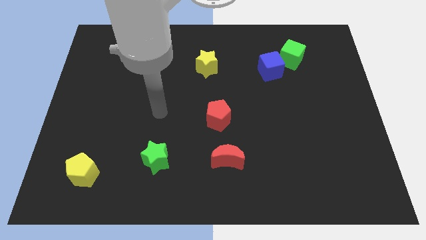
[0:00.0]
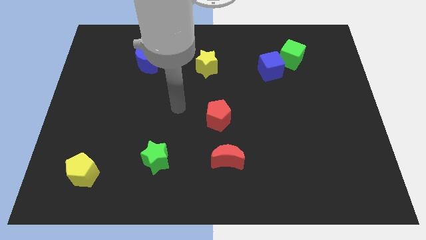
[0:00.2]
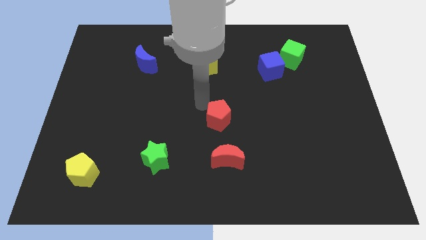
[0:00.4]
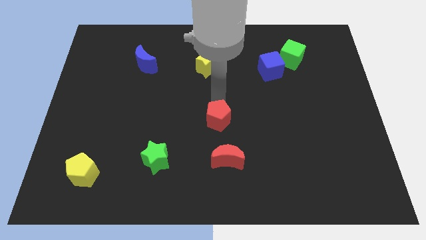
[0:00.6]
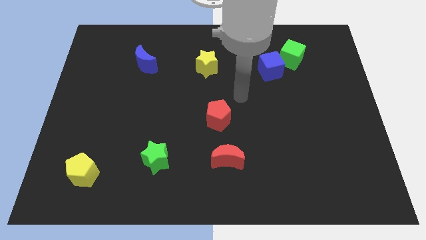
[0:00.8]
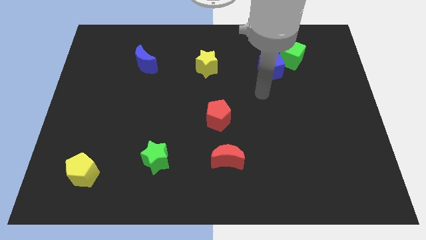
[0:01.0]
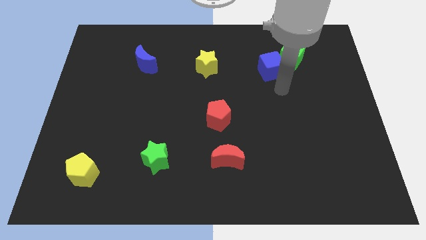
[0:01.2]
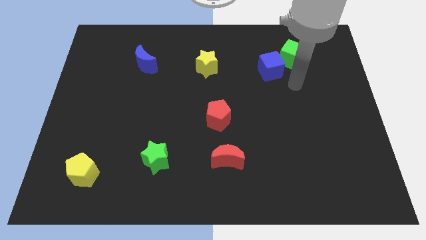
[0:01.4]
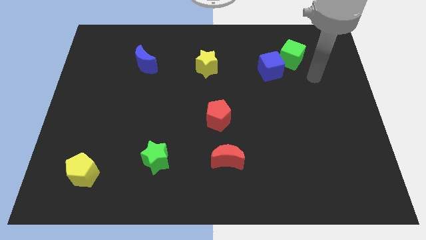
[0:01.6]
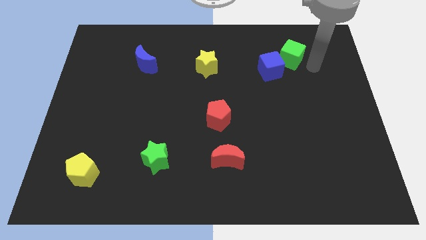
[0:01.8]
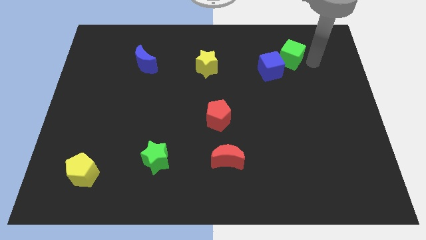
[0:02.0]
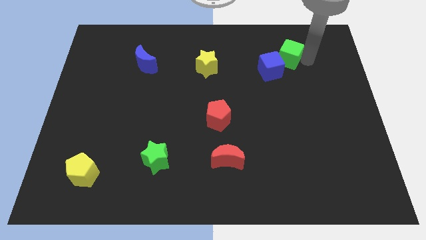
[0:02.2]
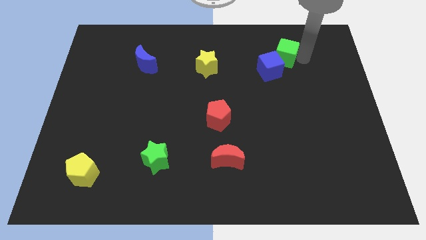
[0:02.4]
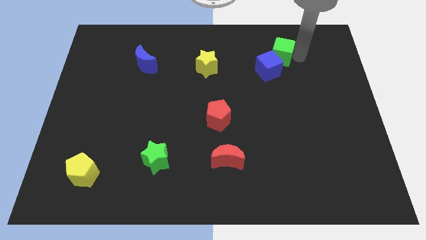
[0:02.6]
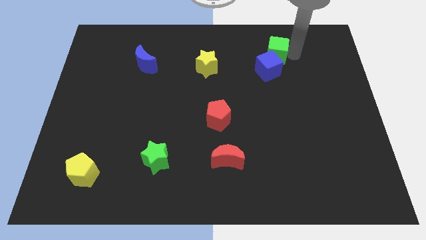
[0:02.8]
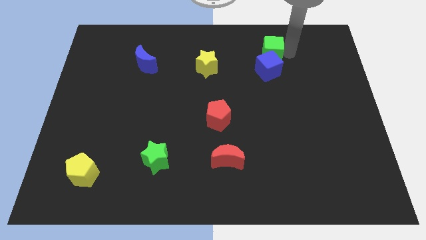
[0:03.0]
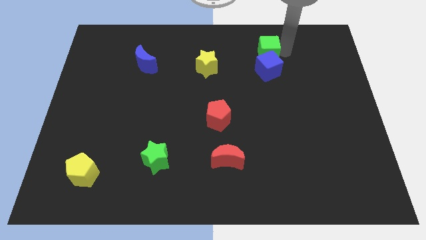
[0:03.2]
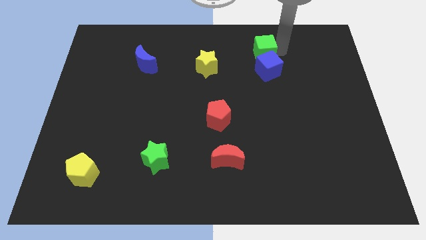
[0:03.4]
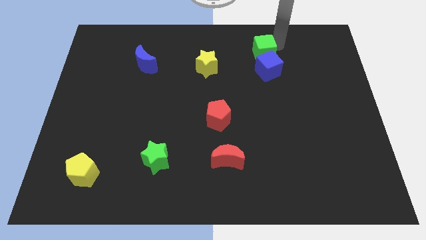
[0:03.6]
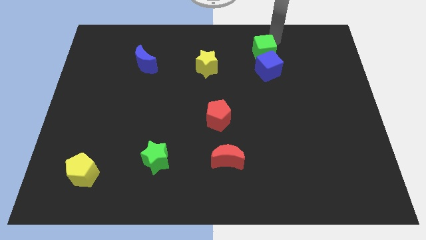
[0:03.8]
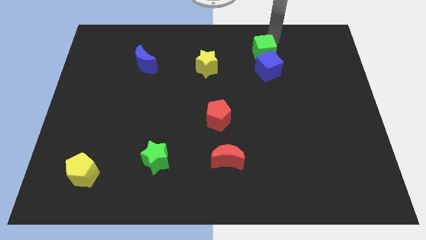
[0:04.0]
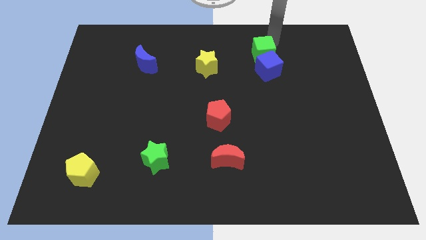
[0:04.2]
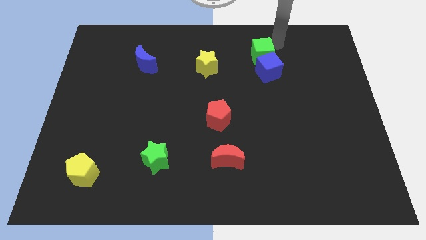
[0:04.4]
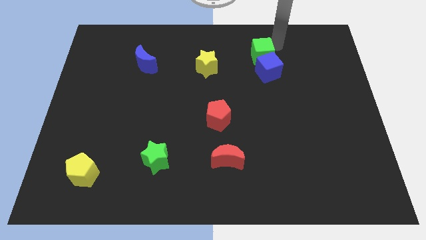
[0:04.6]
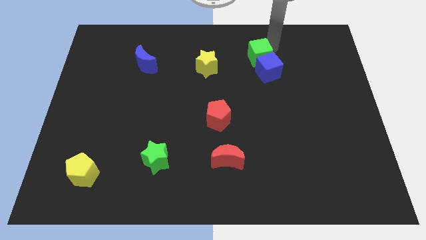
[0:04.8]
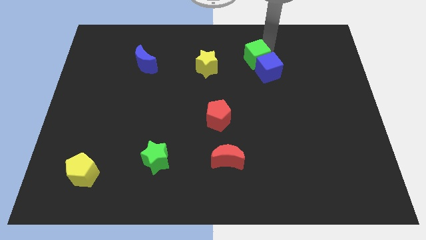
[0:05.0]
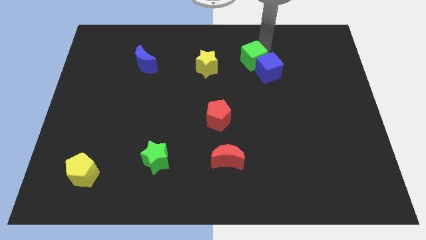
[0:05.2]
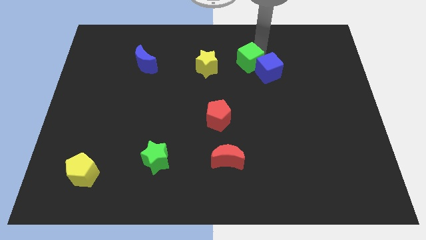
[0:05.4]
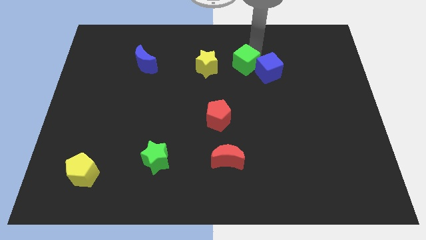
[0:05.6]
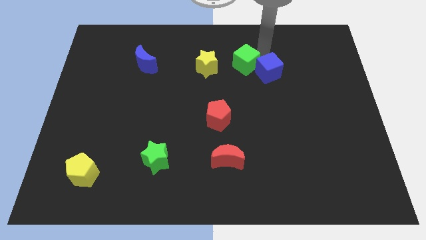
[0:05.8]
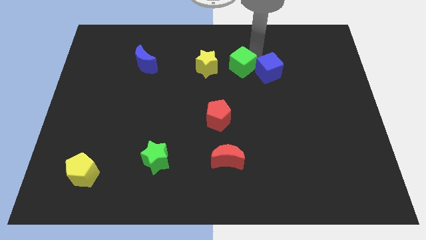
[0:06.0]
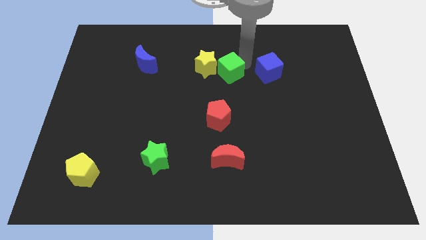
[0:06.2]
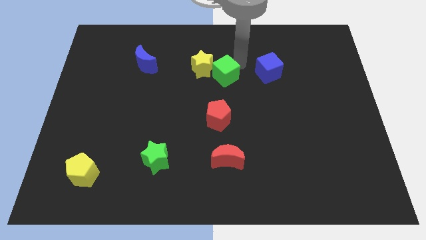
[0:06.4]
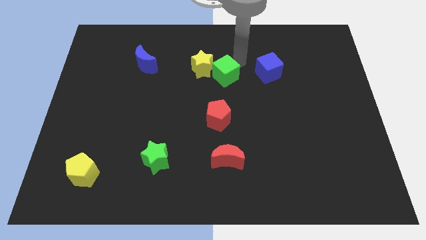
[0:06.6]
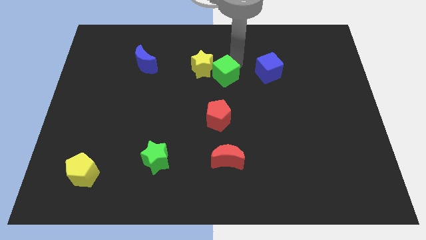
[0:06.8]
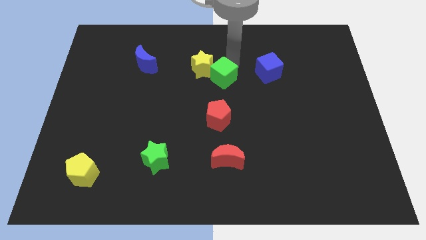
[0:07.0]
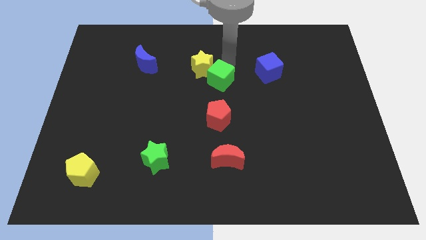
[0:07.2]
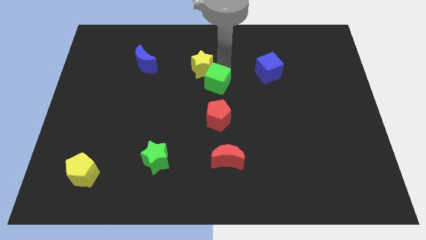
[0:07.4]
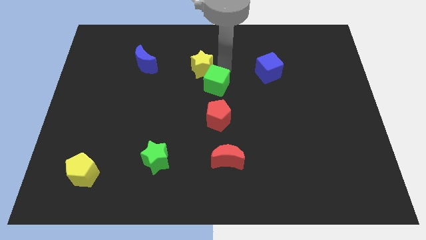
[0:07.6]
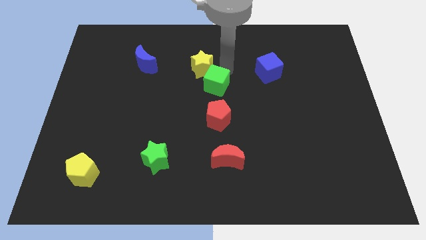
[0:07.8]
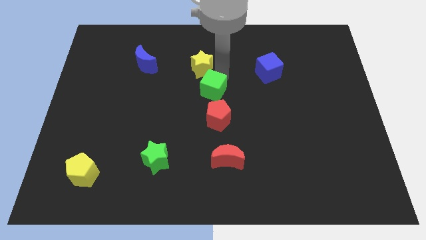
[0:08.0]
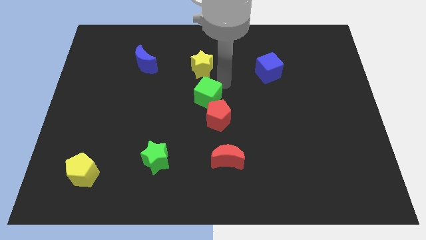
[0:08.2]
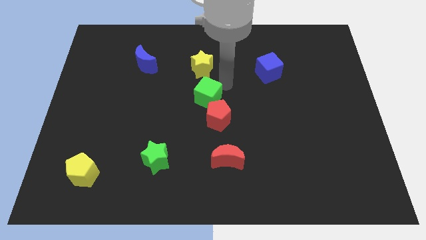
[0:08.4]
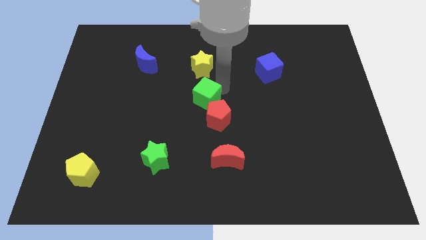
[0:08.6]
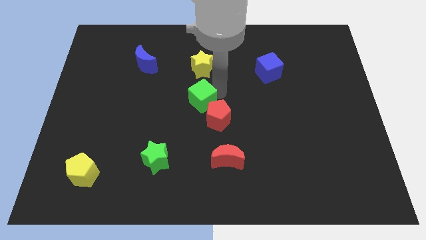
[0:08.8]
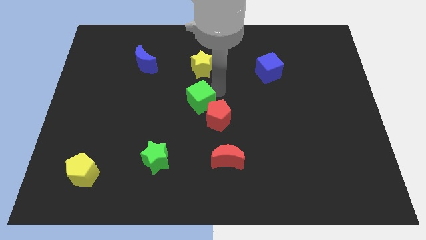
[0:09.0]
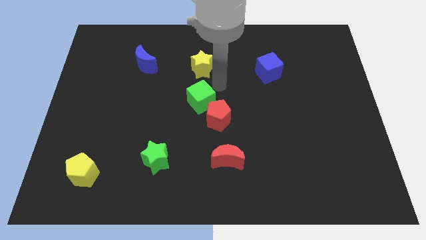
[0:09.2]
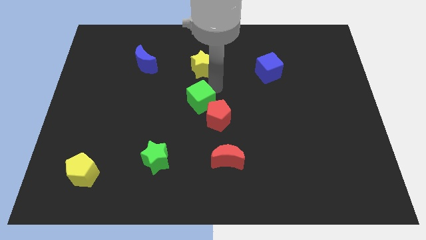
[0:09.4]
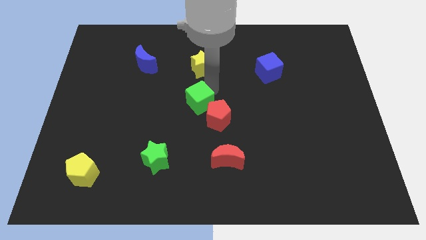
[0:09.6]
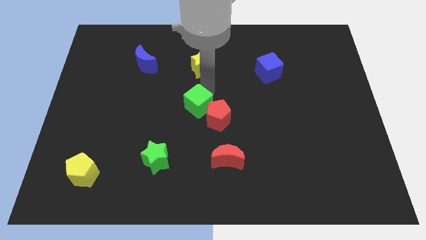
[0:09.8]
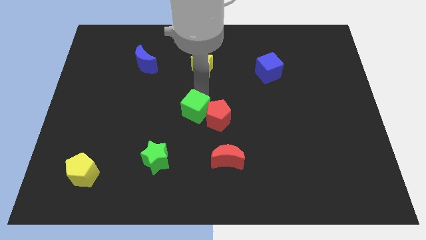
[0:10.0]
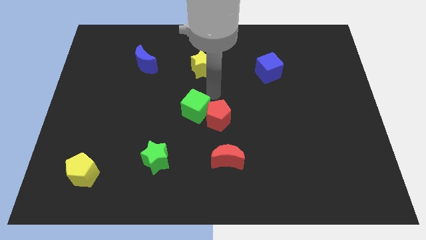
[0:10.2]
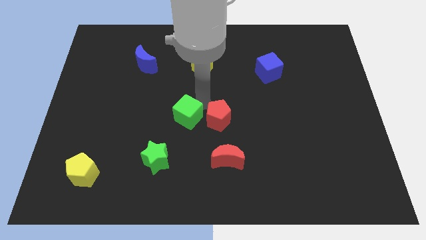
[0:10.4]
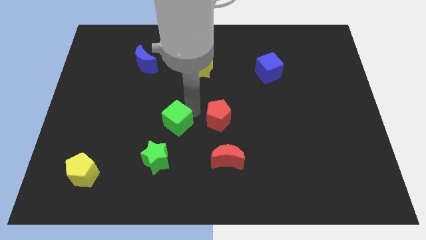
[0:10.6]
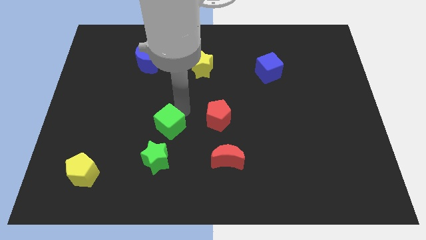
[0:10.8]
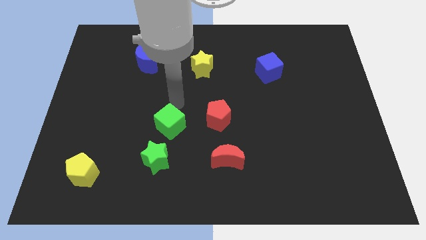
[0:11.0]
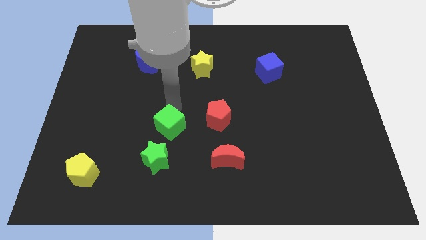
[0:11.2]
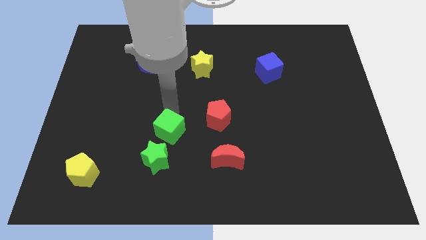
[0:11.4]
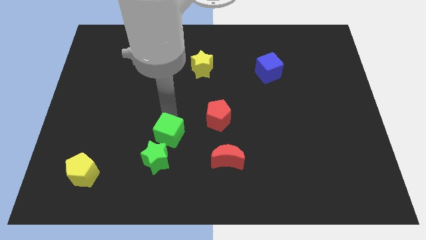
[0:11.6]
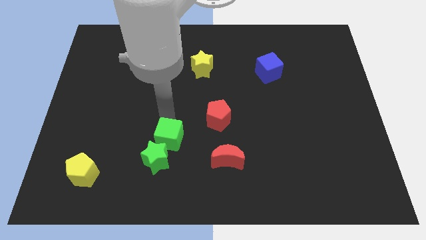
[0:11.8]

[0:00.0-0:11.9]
push the green cube next to the green star
